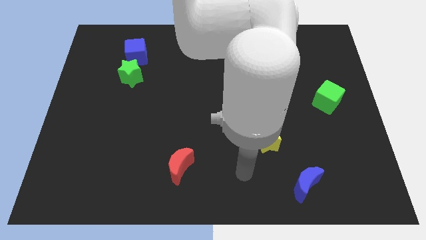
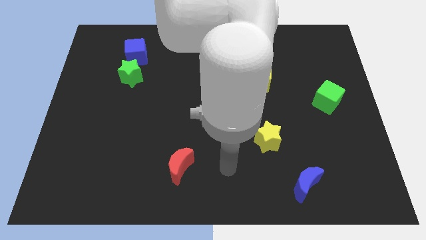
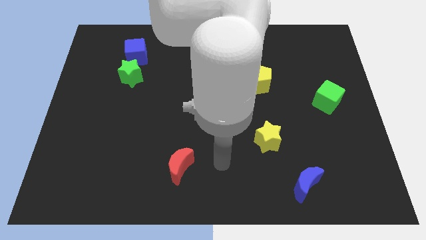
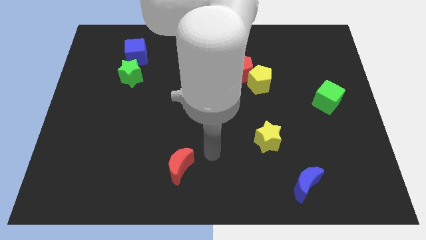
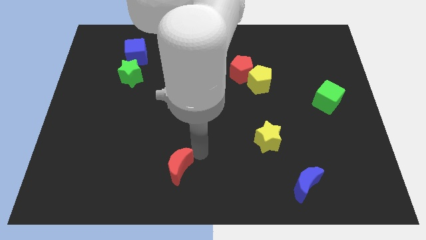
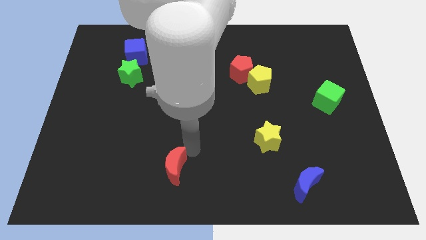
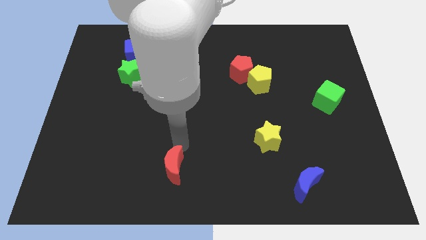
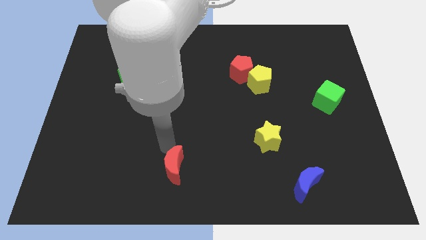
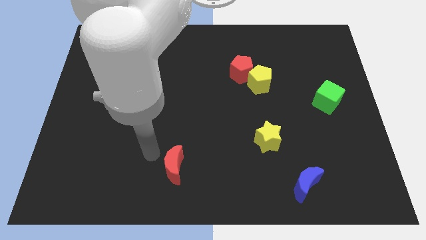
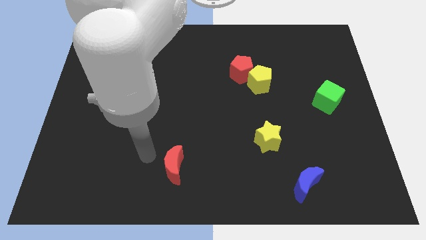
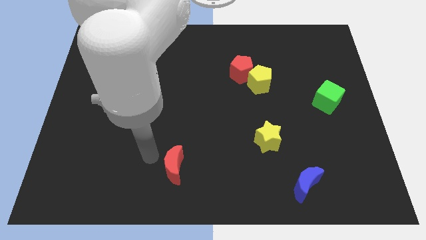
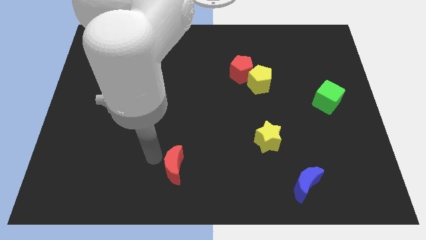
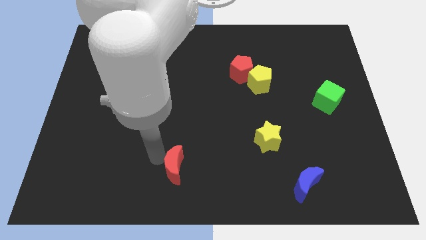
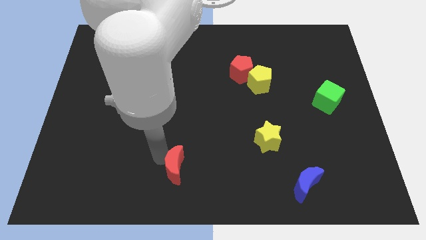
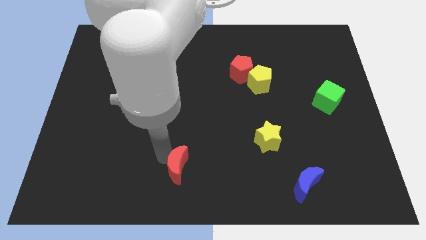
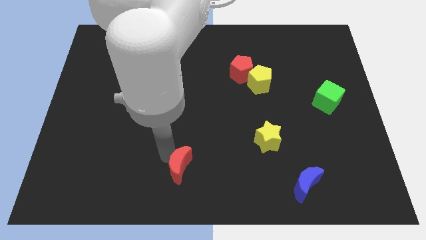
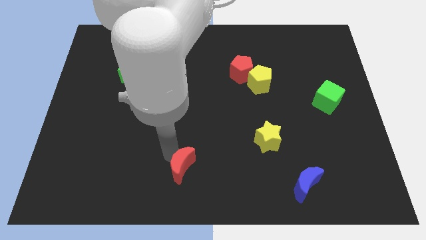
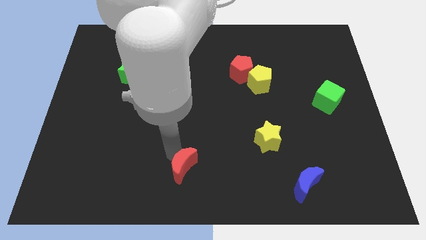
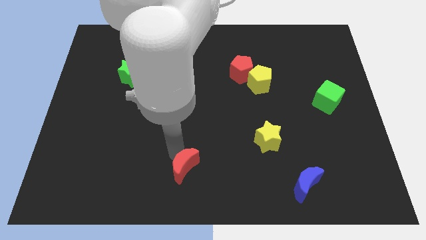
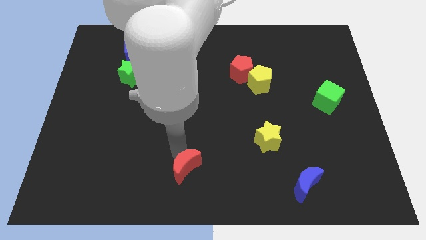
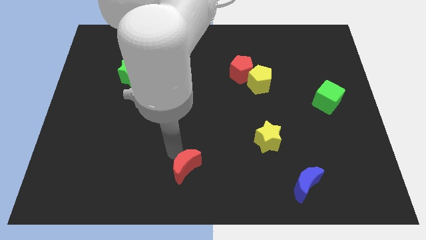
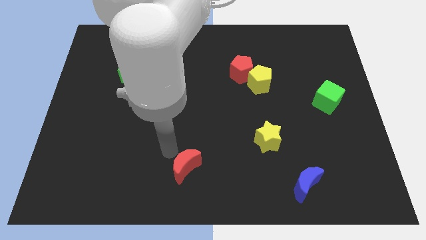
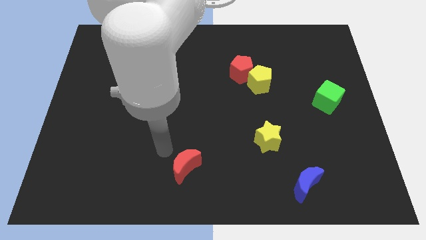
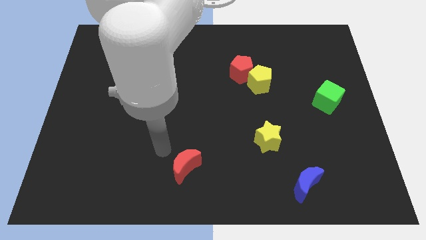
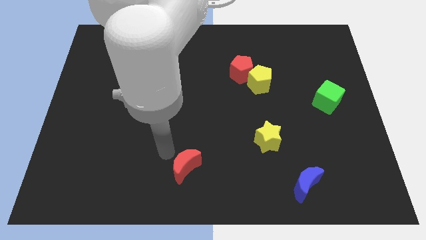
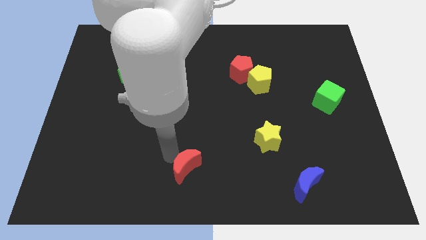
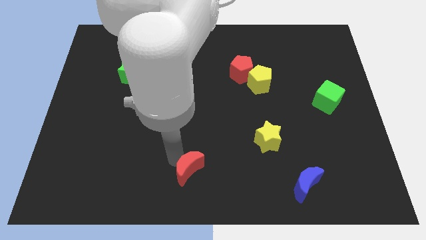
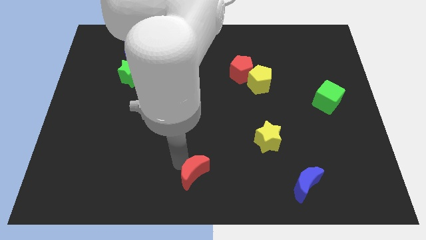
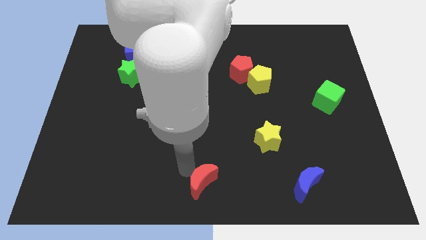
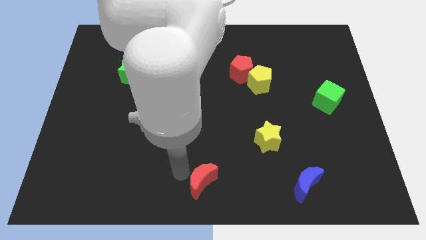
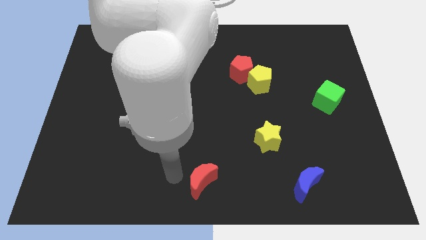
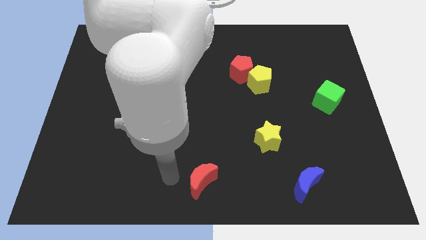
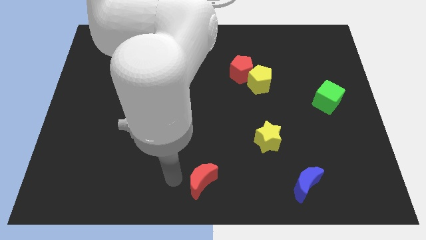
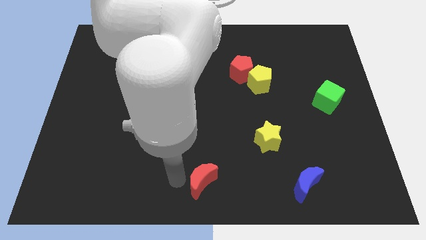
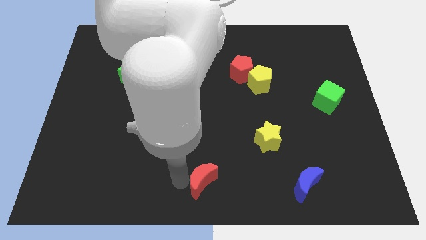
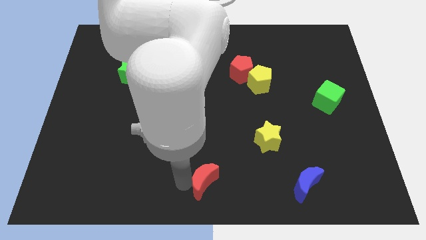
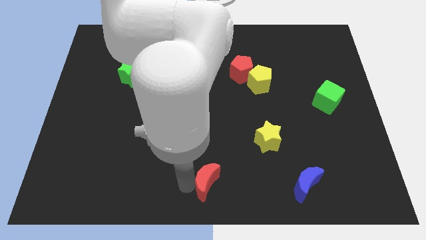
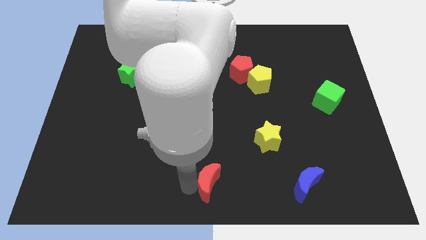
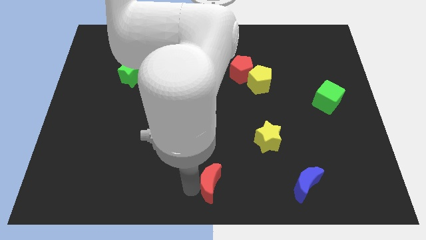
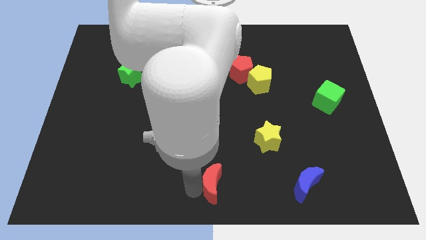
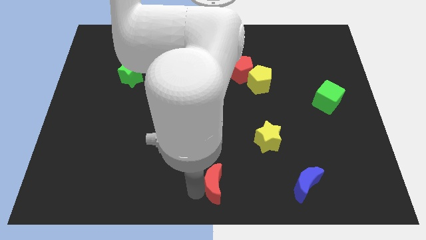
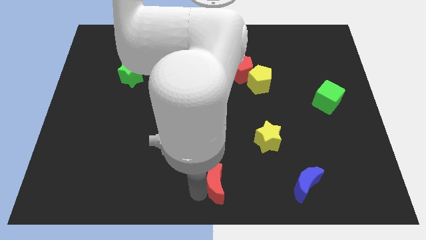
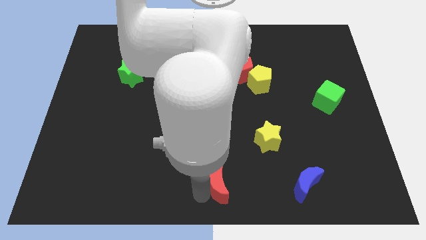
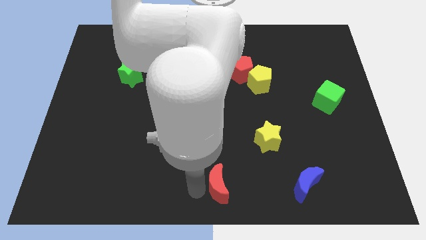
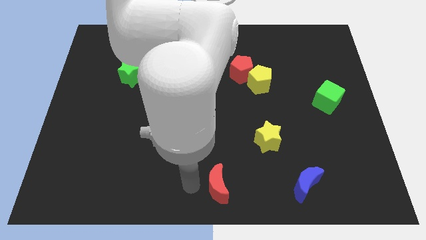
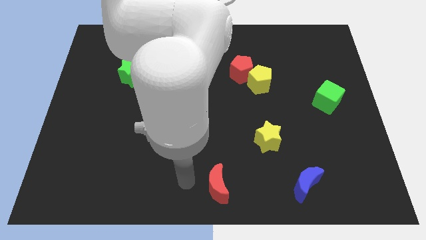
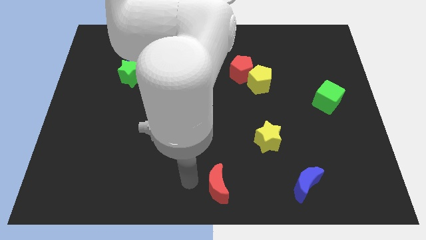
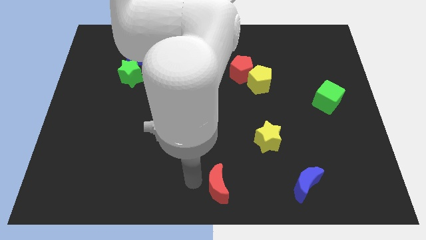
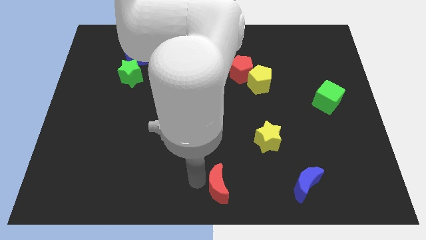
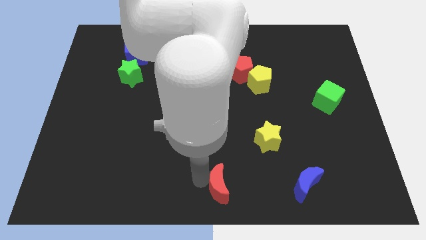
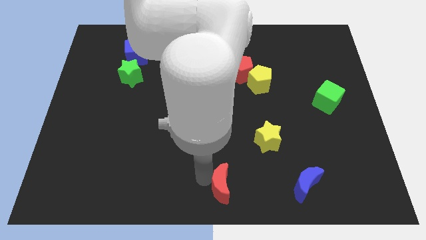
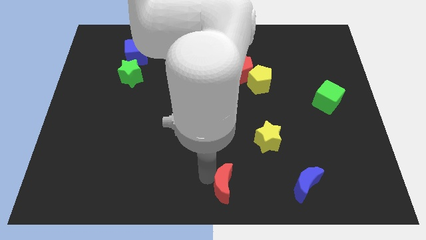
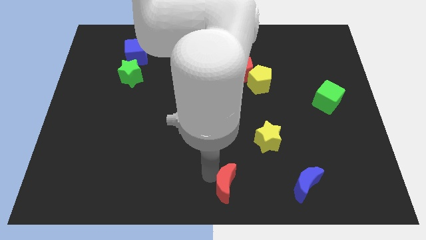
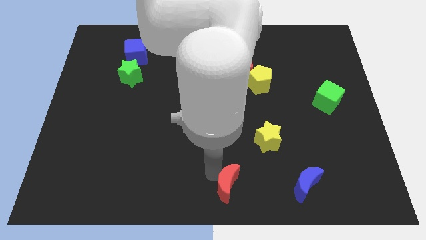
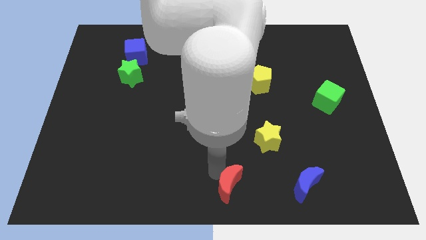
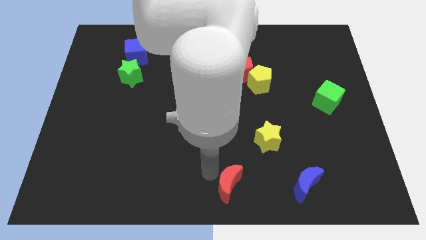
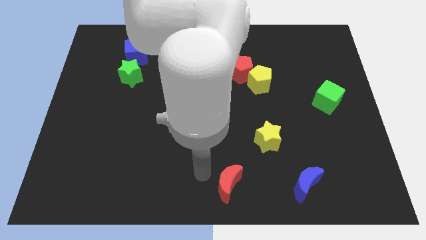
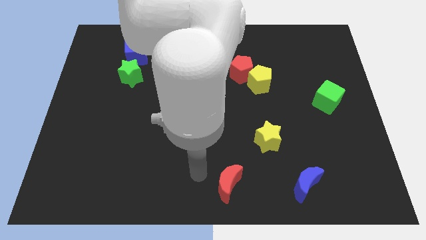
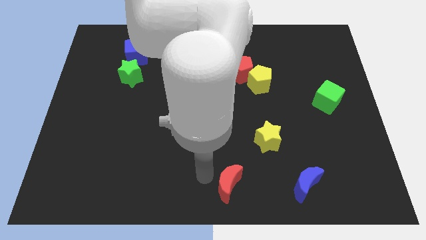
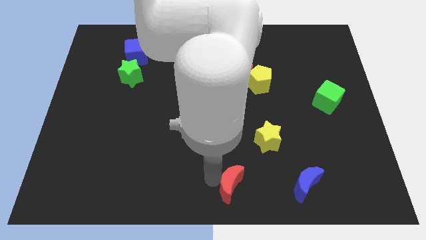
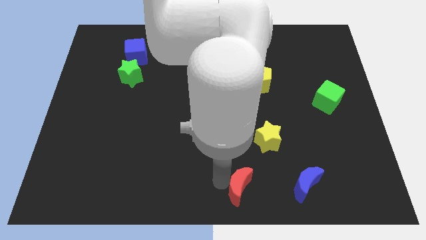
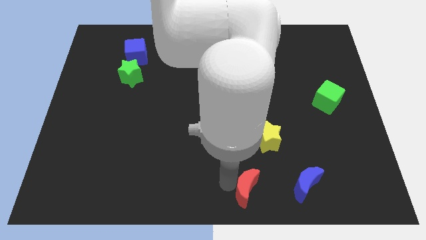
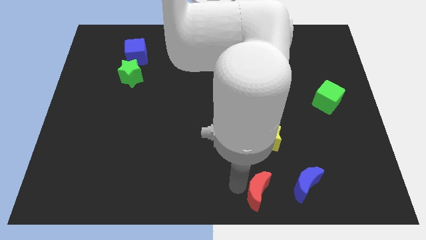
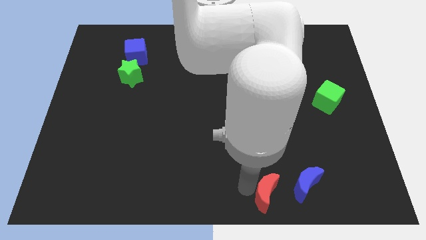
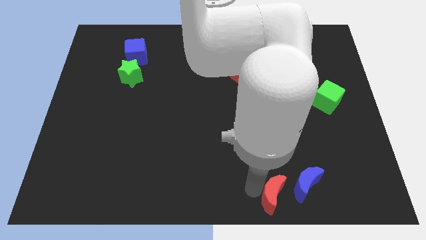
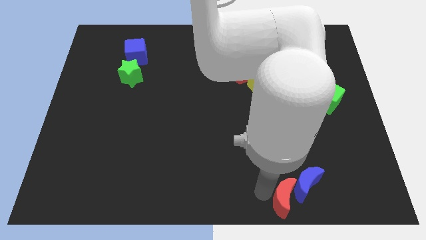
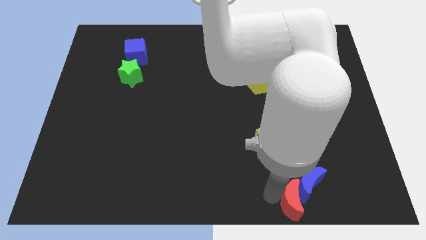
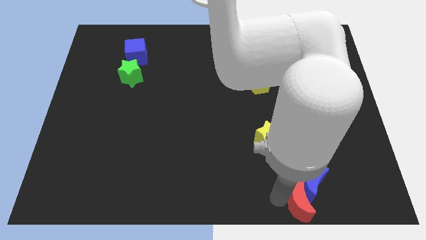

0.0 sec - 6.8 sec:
push the red moon to the right

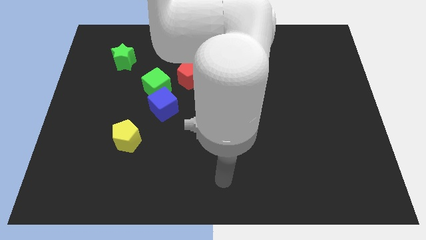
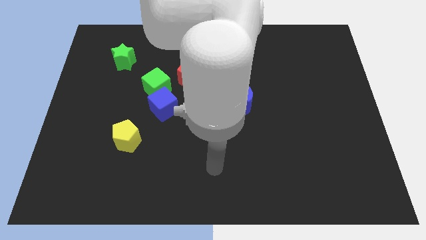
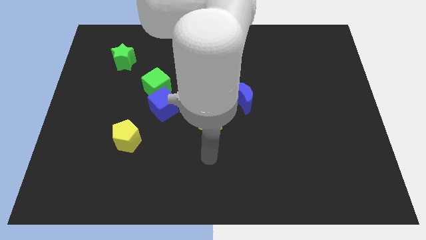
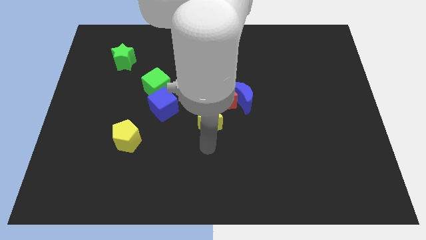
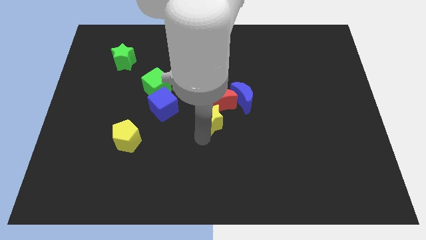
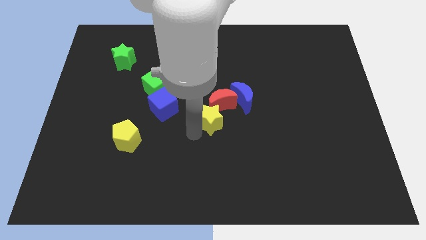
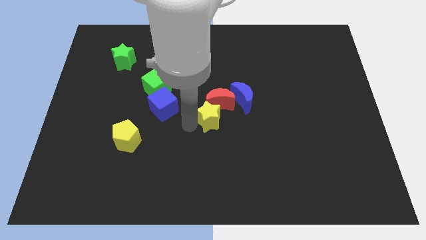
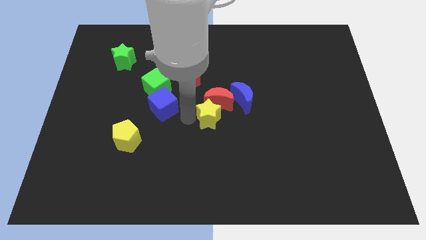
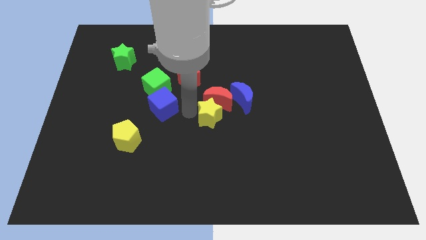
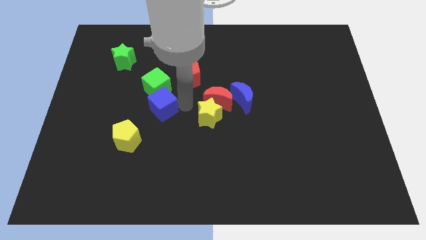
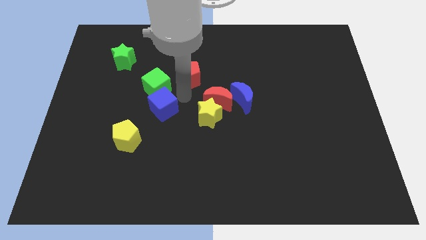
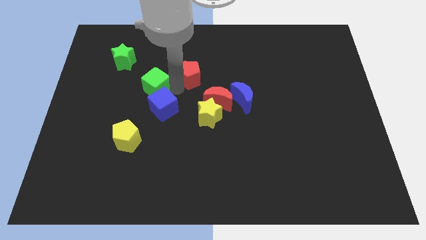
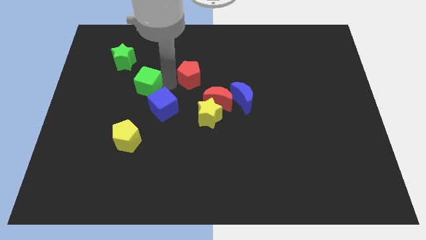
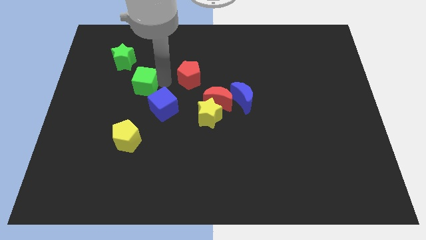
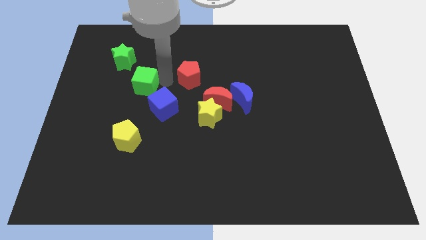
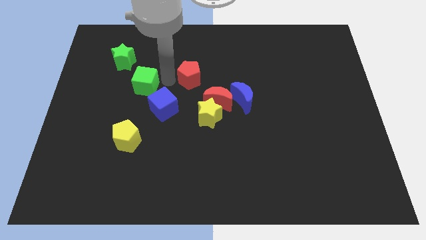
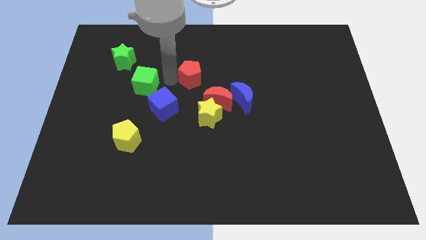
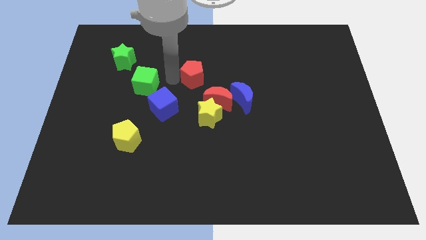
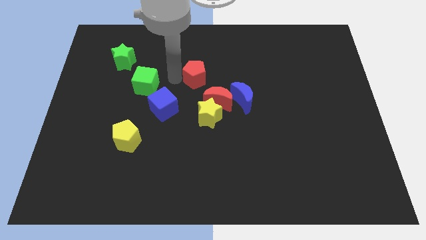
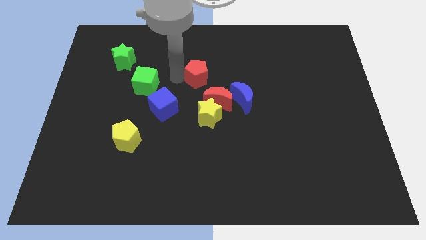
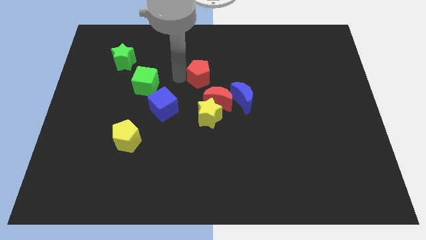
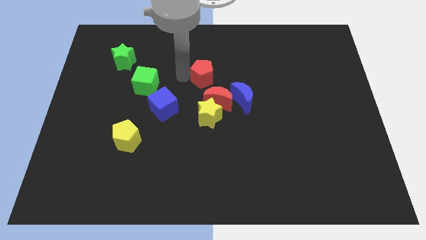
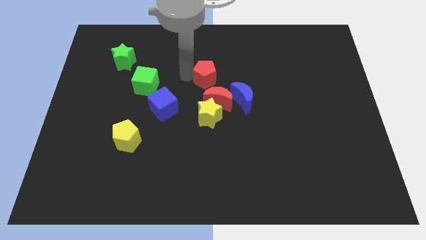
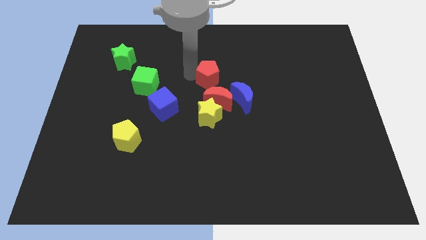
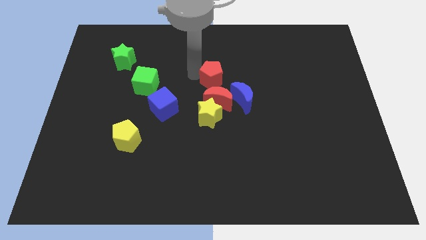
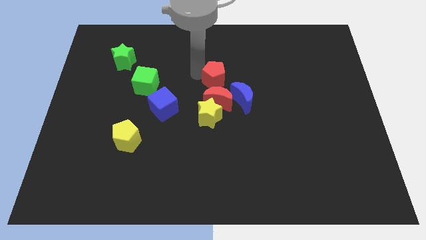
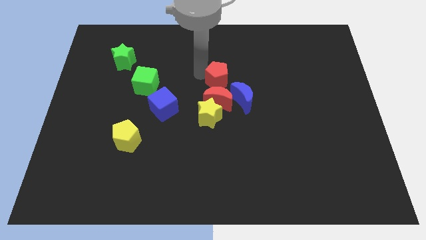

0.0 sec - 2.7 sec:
push the red pentagon right slightly
